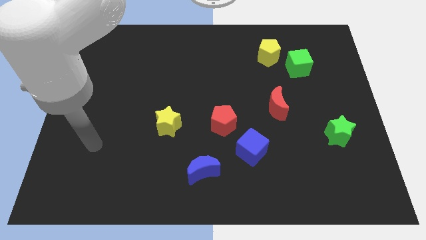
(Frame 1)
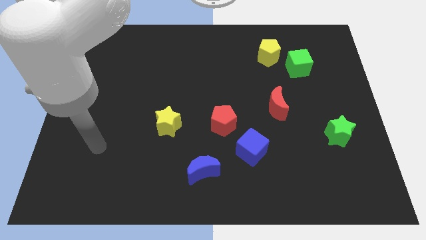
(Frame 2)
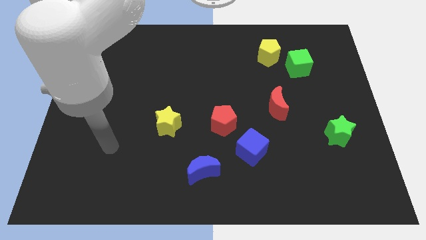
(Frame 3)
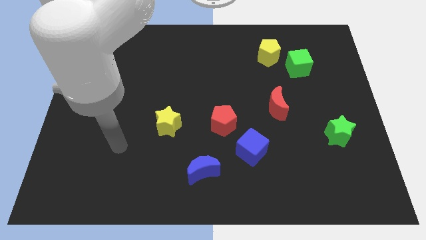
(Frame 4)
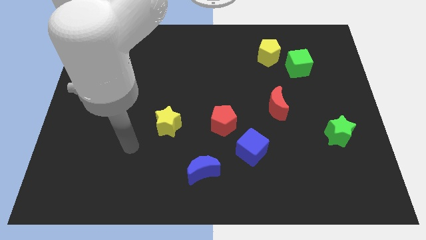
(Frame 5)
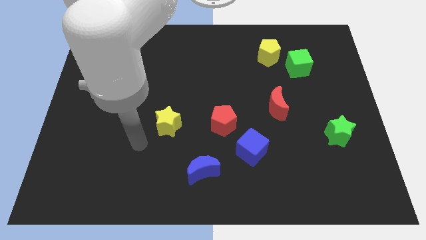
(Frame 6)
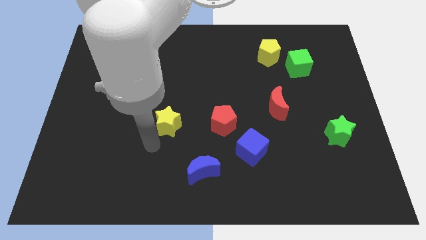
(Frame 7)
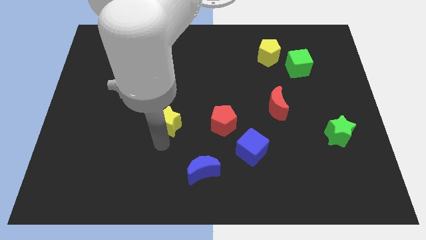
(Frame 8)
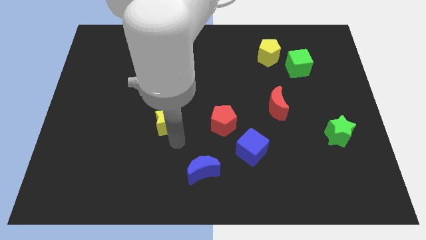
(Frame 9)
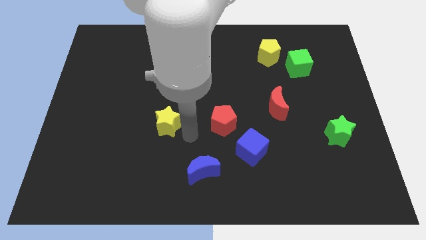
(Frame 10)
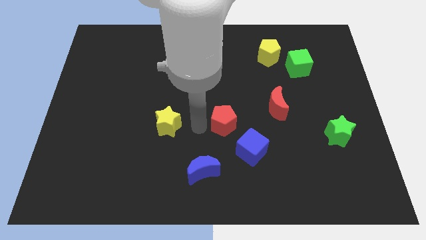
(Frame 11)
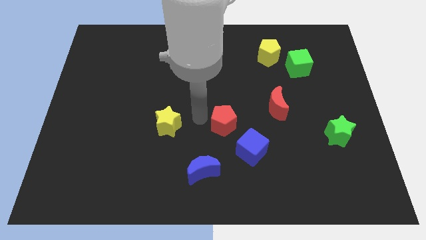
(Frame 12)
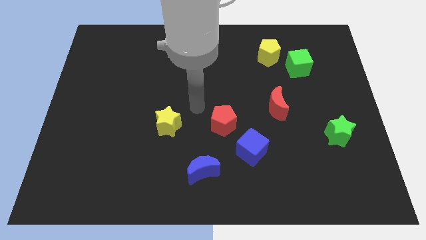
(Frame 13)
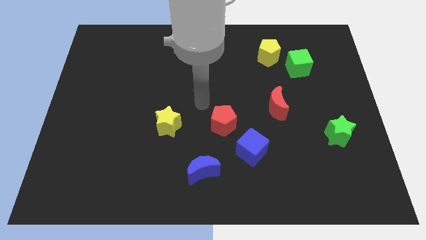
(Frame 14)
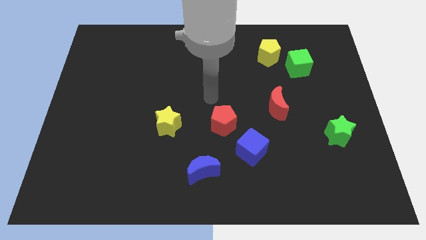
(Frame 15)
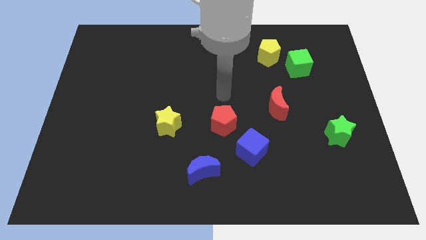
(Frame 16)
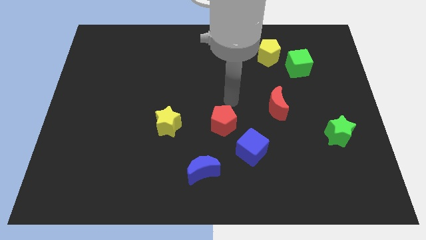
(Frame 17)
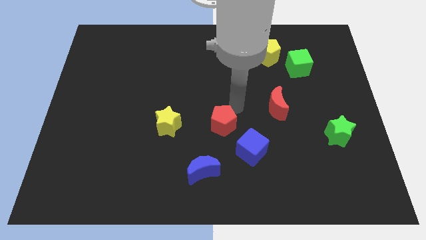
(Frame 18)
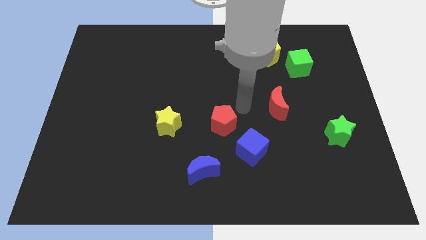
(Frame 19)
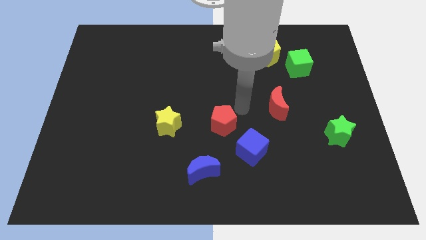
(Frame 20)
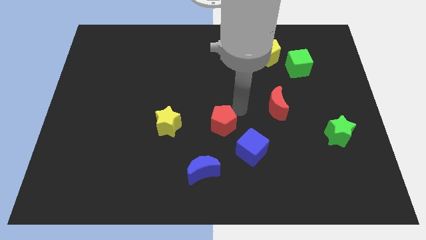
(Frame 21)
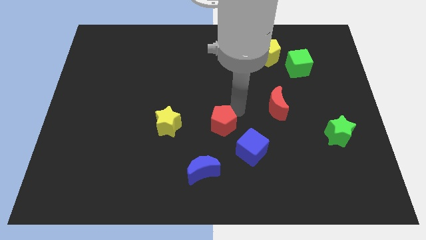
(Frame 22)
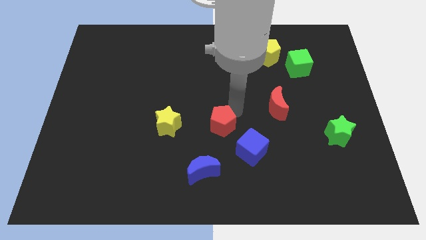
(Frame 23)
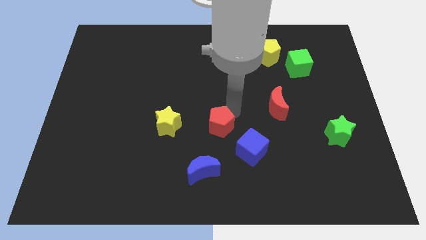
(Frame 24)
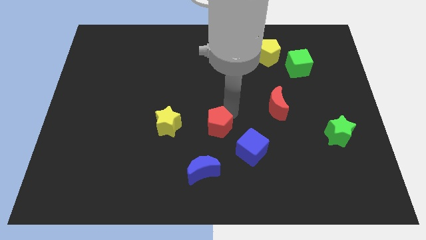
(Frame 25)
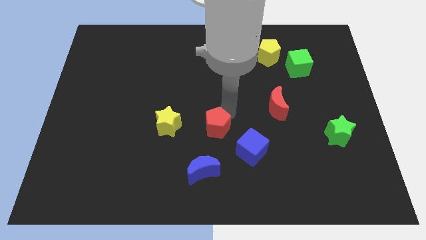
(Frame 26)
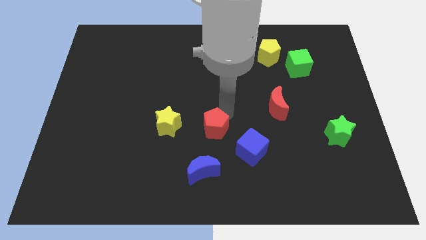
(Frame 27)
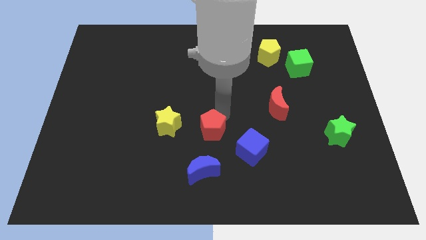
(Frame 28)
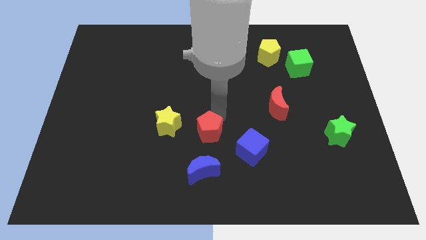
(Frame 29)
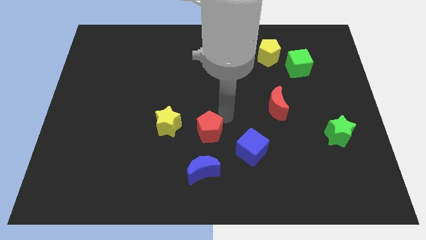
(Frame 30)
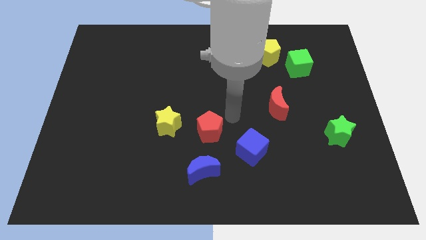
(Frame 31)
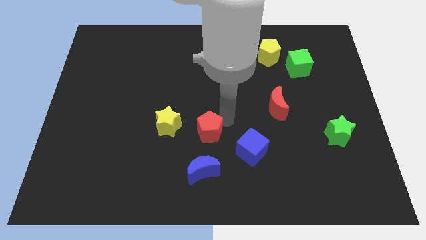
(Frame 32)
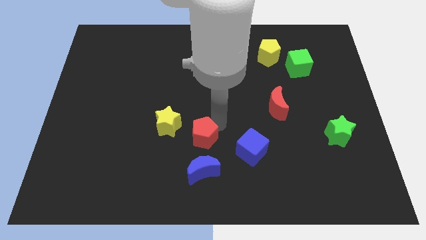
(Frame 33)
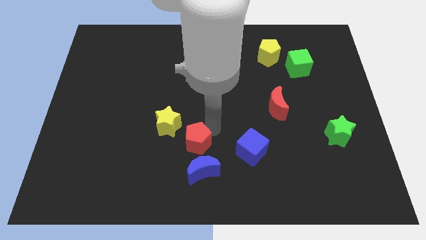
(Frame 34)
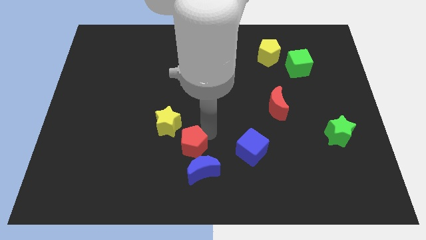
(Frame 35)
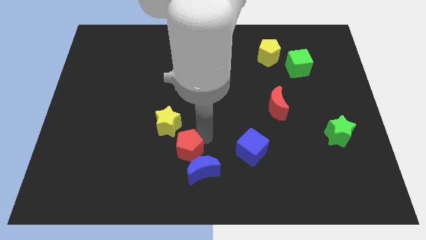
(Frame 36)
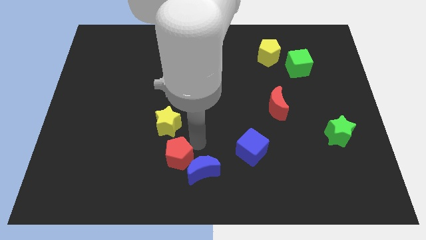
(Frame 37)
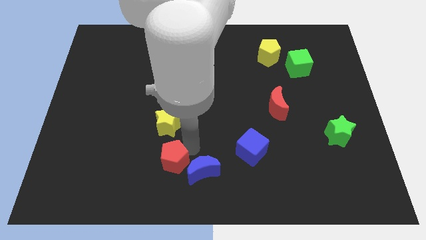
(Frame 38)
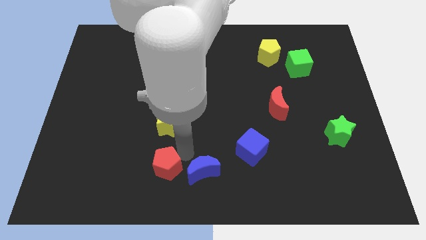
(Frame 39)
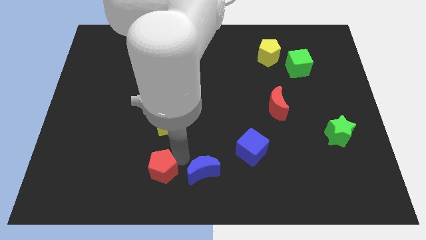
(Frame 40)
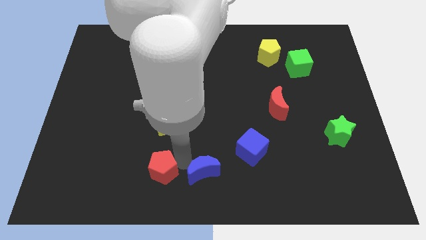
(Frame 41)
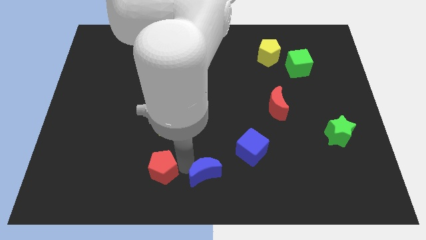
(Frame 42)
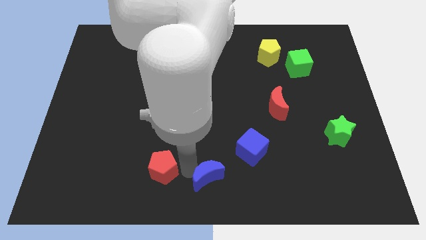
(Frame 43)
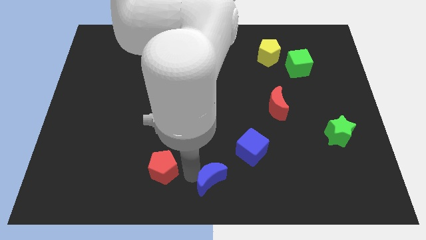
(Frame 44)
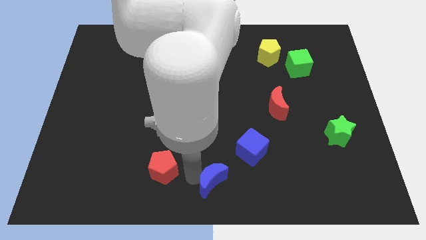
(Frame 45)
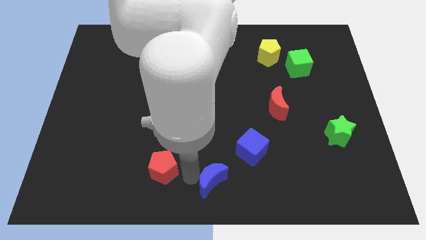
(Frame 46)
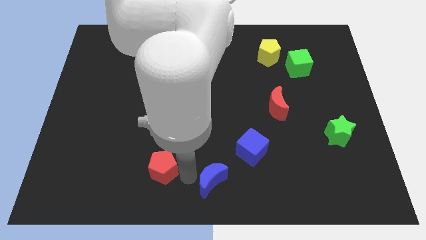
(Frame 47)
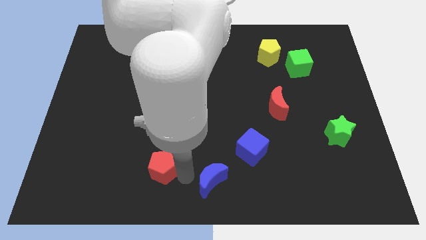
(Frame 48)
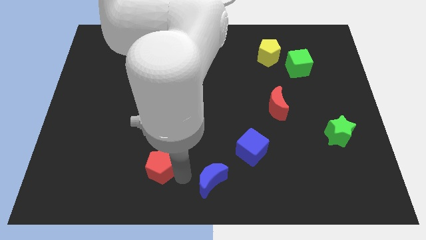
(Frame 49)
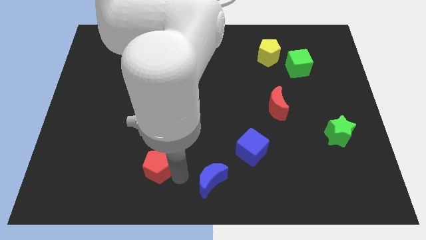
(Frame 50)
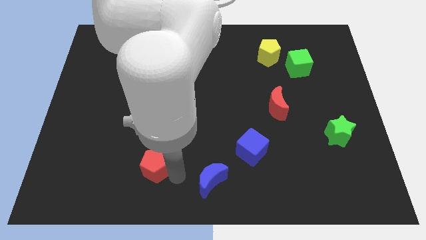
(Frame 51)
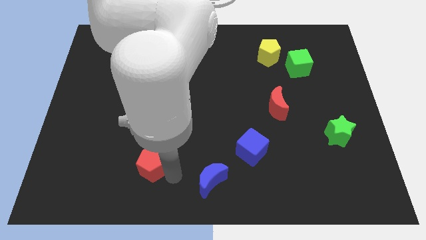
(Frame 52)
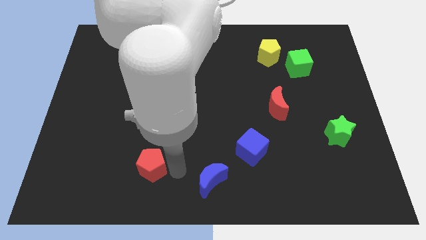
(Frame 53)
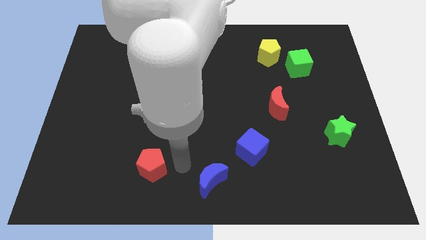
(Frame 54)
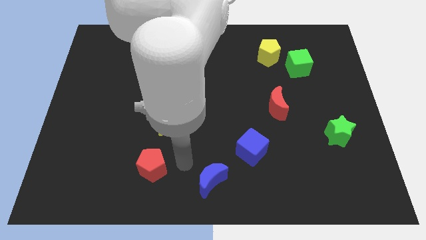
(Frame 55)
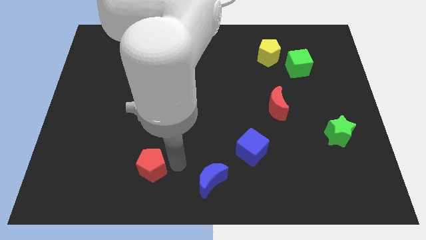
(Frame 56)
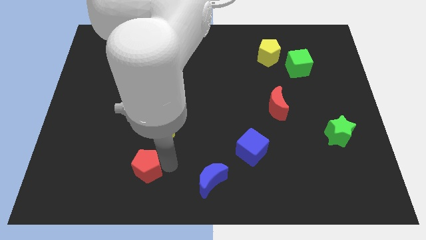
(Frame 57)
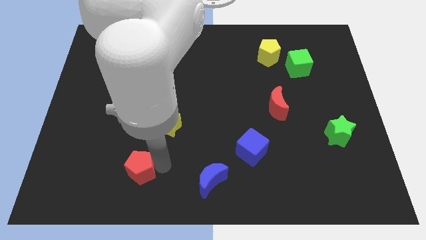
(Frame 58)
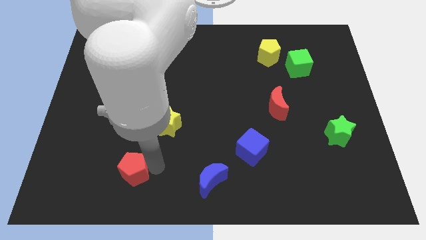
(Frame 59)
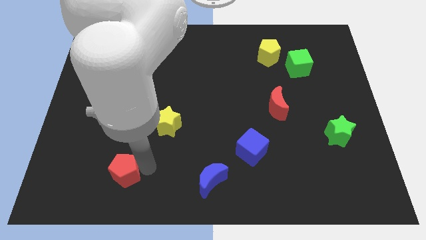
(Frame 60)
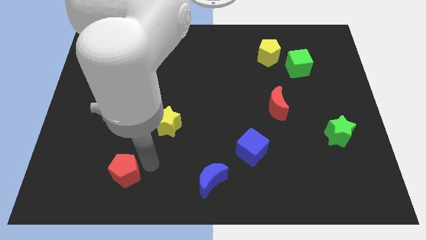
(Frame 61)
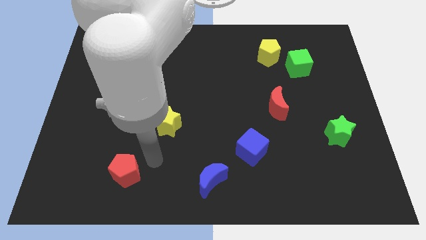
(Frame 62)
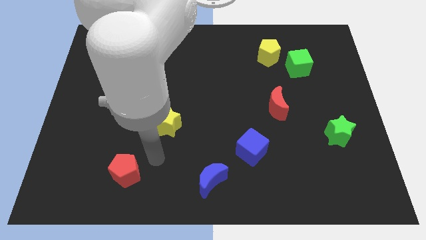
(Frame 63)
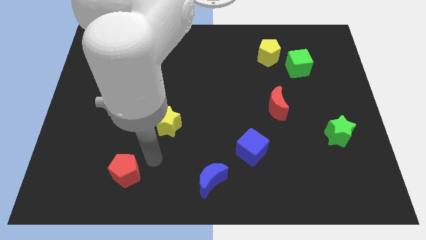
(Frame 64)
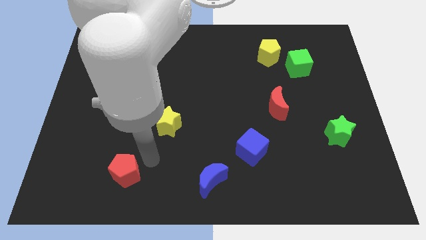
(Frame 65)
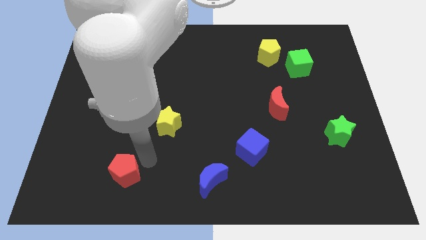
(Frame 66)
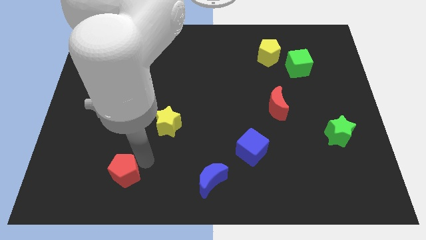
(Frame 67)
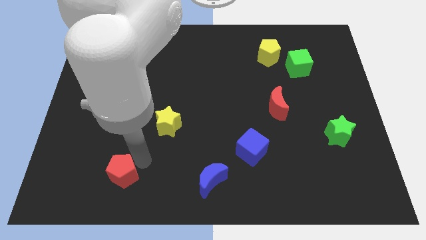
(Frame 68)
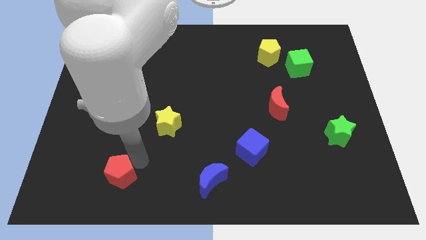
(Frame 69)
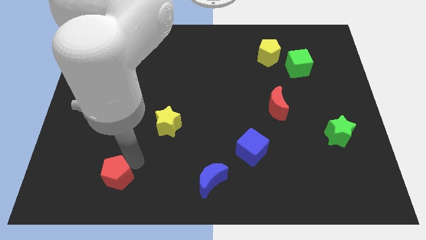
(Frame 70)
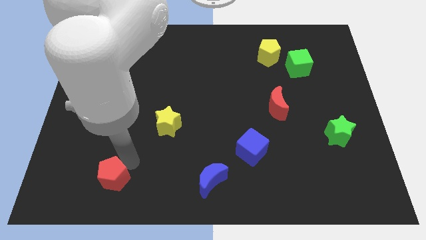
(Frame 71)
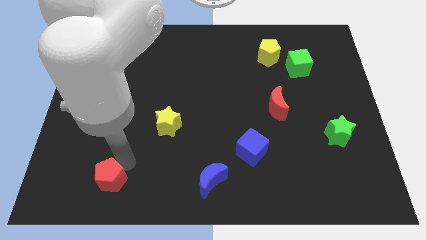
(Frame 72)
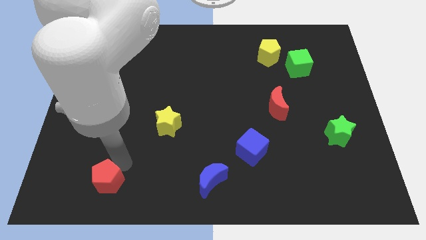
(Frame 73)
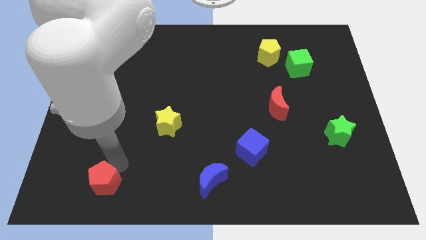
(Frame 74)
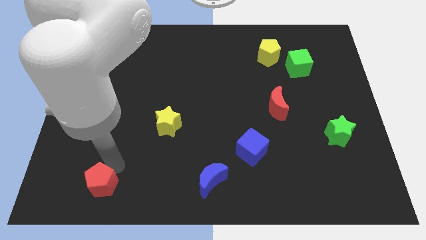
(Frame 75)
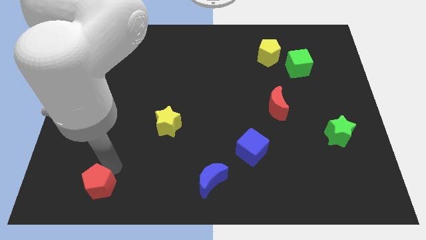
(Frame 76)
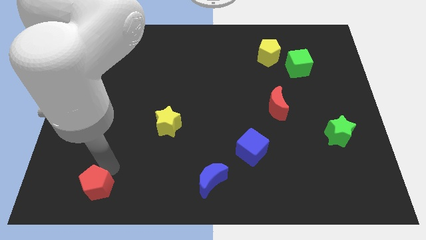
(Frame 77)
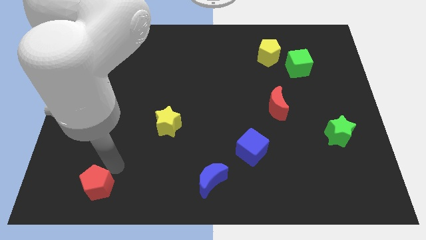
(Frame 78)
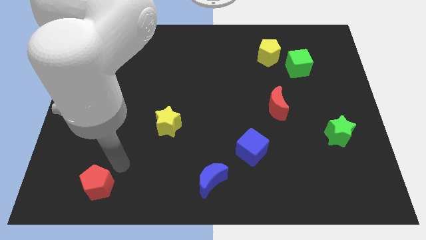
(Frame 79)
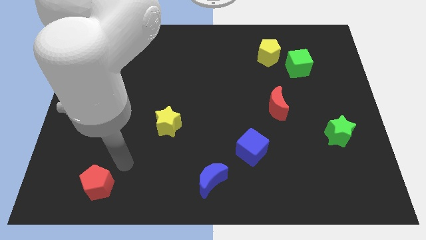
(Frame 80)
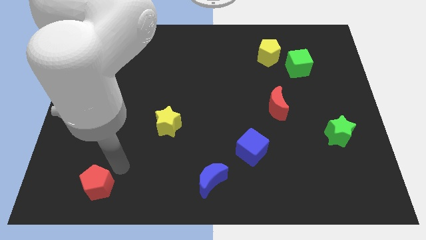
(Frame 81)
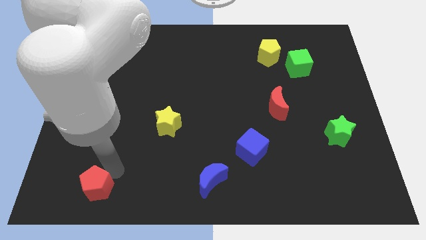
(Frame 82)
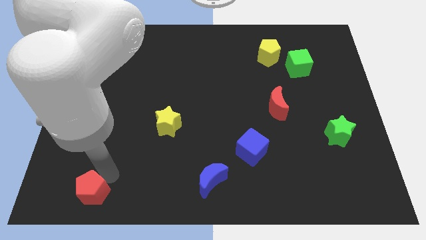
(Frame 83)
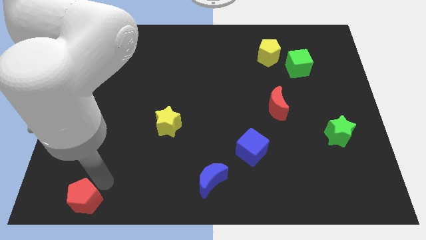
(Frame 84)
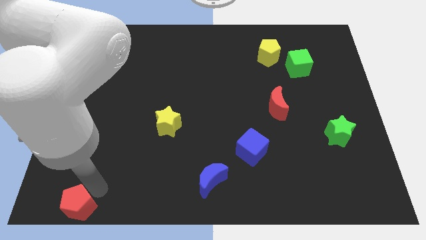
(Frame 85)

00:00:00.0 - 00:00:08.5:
slide the red pentagon to the bottom left corner
